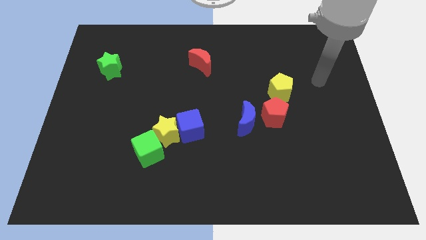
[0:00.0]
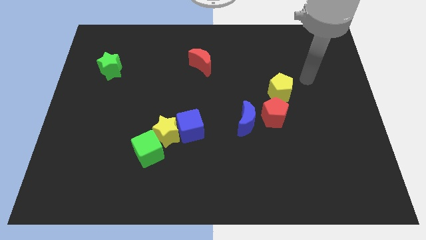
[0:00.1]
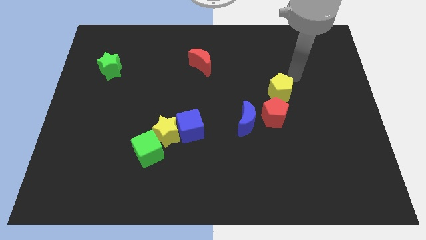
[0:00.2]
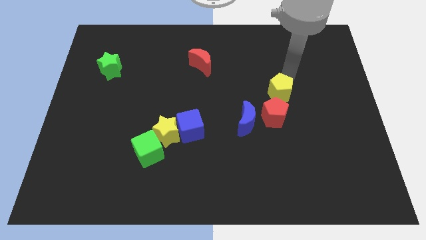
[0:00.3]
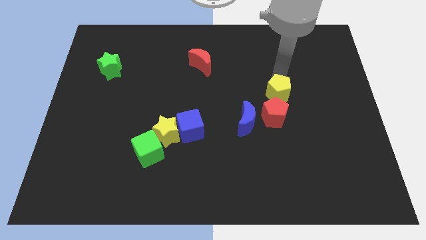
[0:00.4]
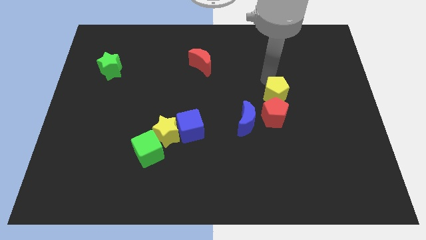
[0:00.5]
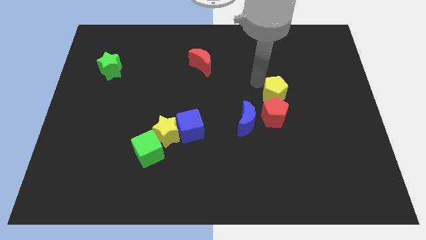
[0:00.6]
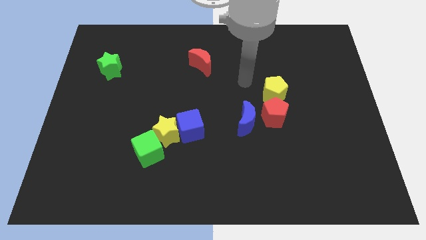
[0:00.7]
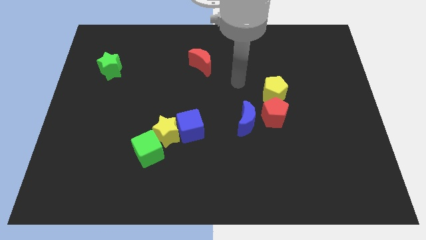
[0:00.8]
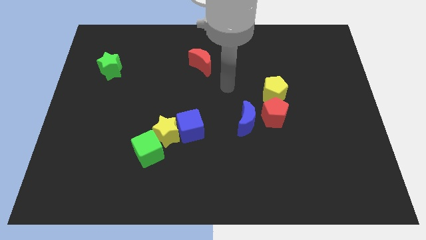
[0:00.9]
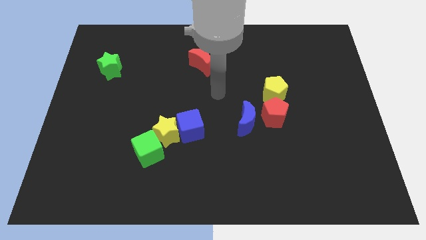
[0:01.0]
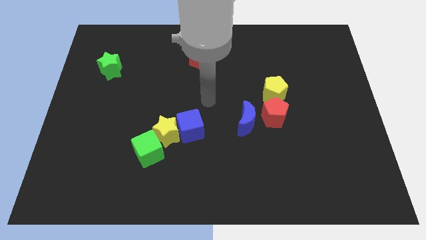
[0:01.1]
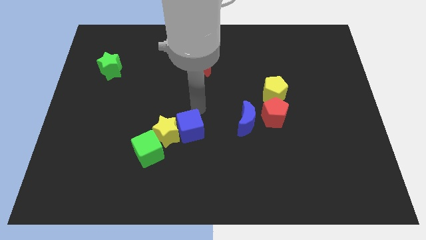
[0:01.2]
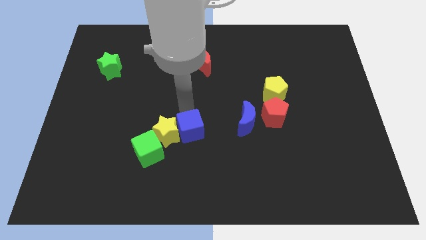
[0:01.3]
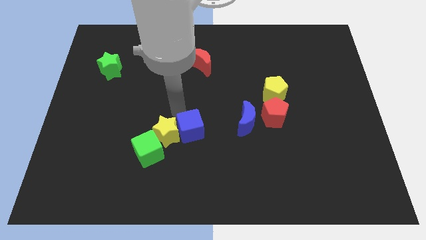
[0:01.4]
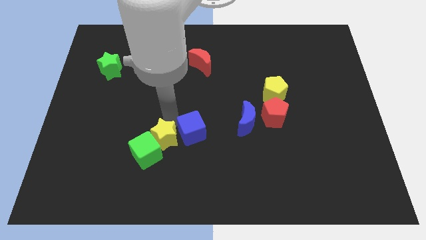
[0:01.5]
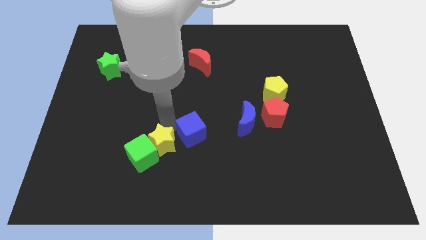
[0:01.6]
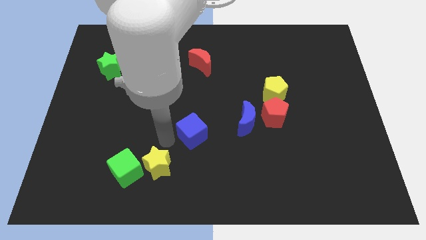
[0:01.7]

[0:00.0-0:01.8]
move the blue cube away from the yellow star

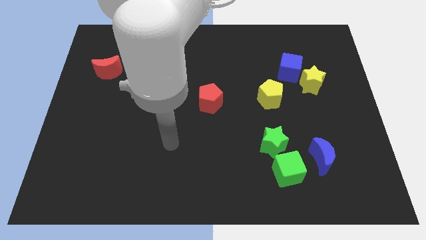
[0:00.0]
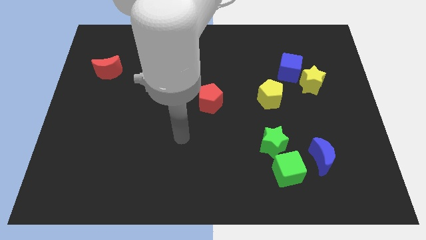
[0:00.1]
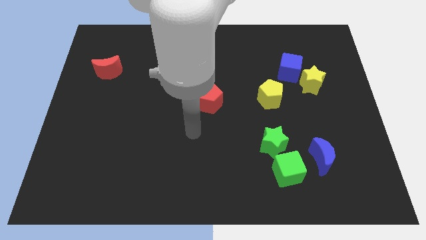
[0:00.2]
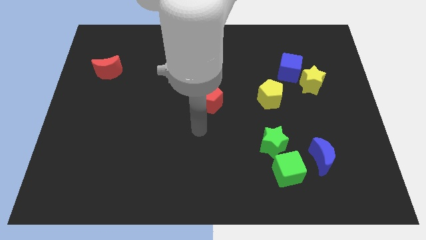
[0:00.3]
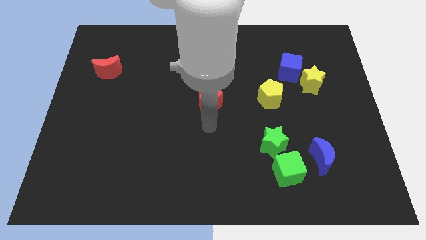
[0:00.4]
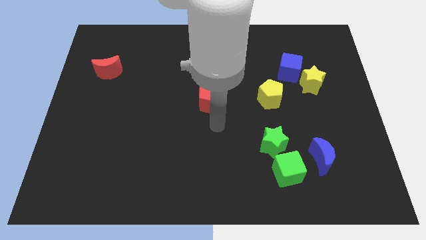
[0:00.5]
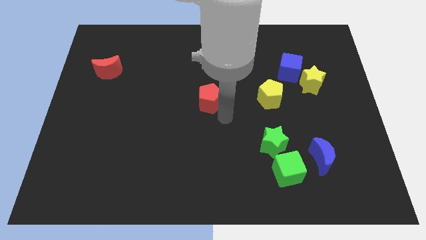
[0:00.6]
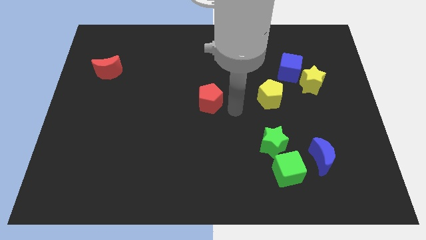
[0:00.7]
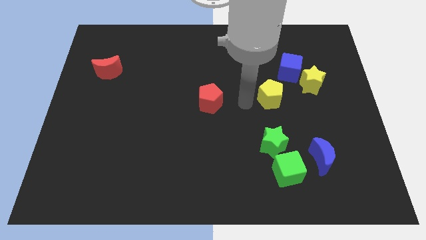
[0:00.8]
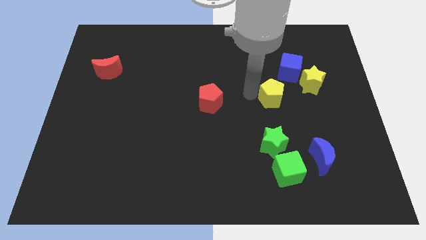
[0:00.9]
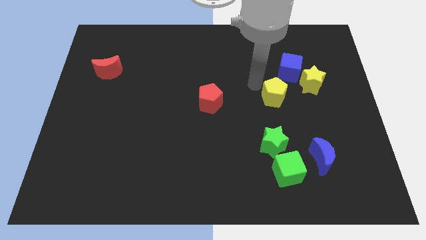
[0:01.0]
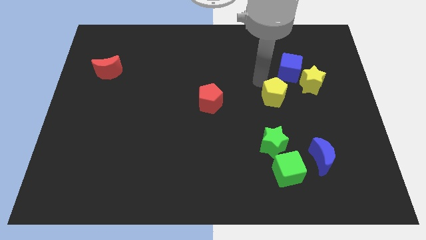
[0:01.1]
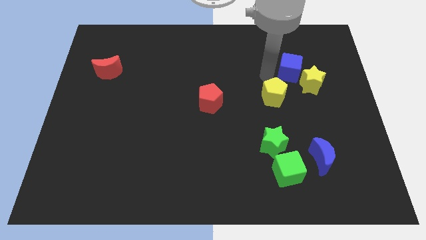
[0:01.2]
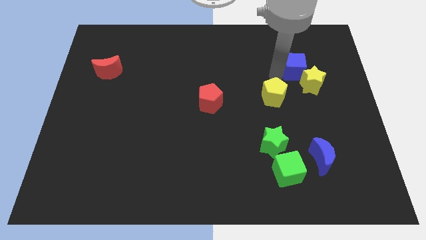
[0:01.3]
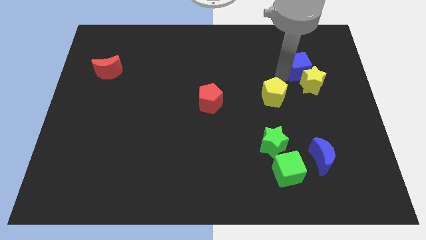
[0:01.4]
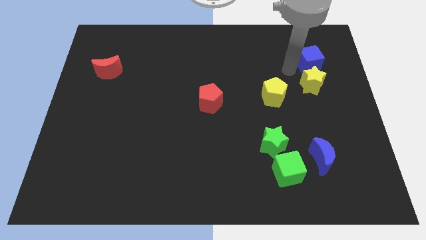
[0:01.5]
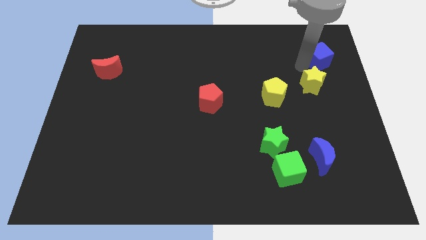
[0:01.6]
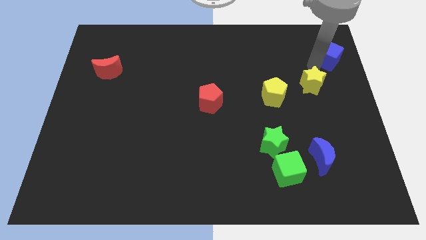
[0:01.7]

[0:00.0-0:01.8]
pull the yellow star apart from the blue cube

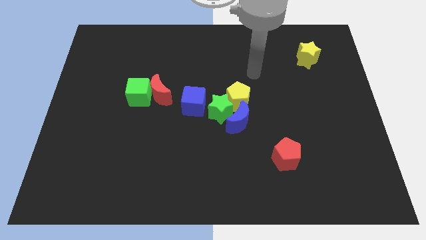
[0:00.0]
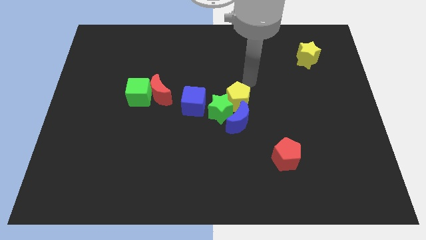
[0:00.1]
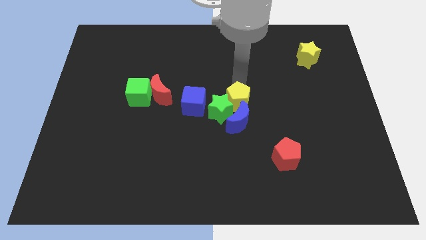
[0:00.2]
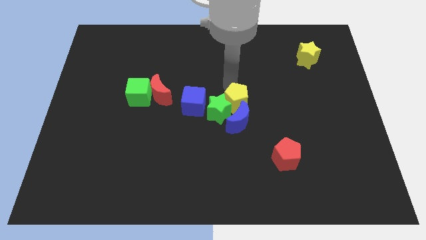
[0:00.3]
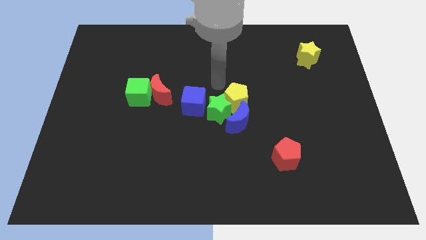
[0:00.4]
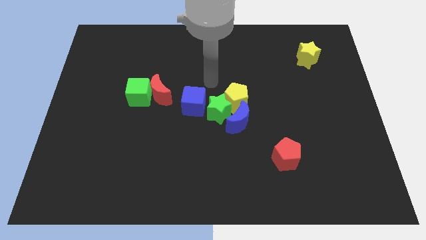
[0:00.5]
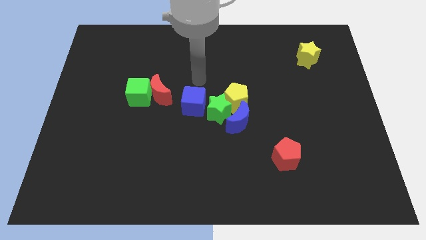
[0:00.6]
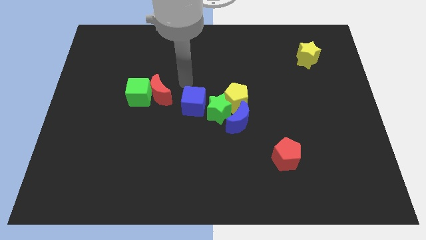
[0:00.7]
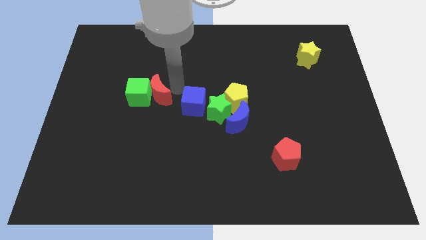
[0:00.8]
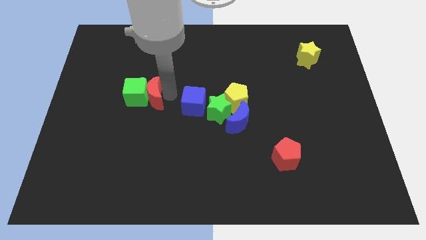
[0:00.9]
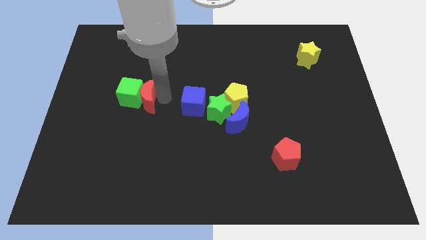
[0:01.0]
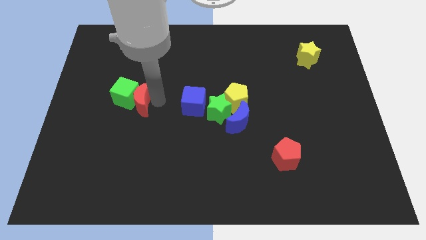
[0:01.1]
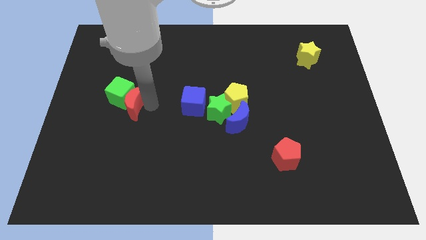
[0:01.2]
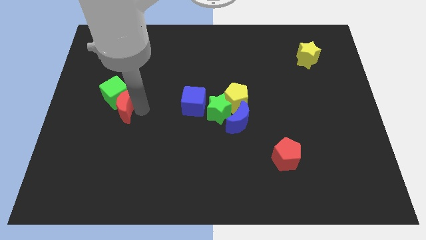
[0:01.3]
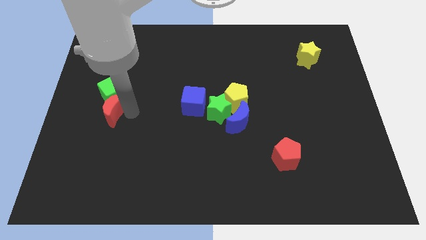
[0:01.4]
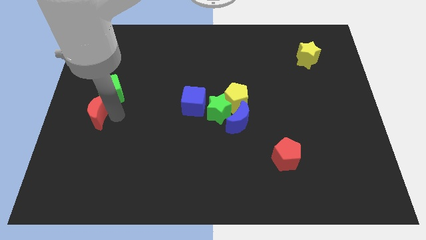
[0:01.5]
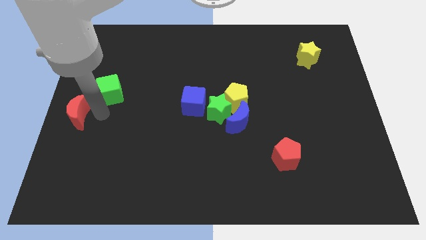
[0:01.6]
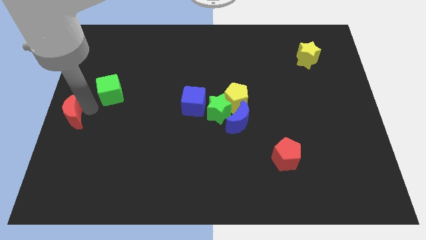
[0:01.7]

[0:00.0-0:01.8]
pull the green cube apart from the red moon

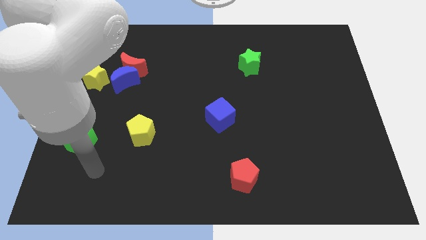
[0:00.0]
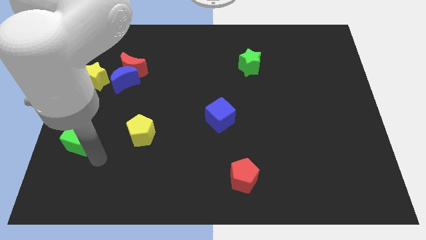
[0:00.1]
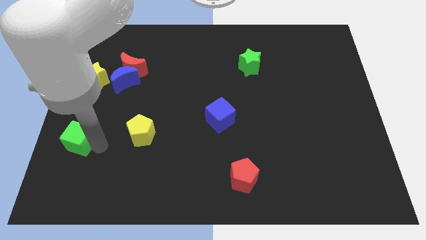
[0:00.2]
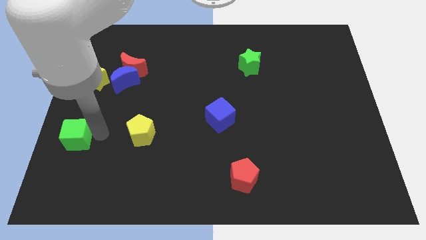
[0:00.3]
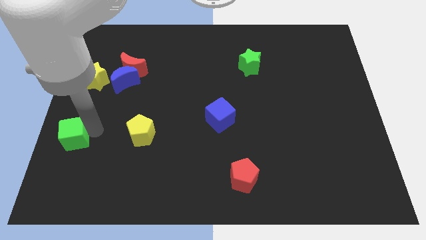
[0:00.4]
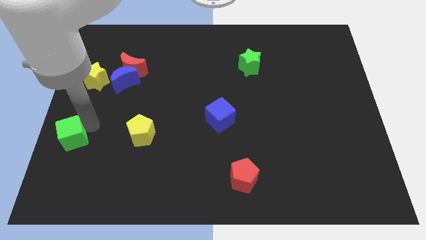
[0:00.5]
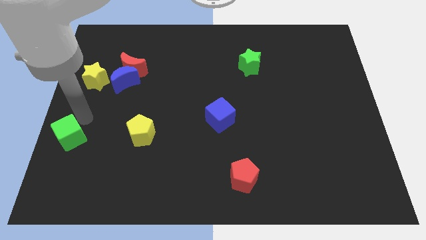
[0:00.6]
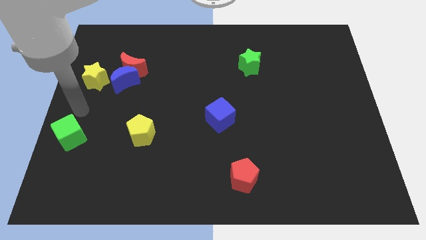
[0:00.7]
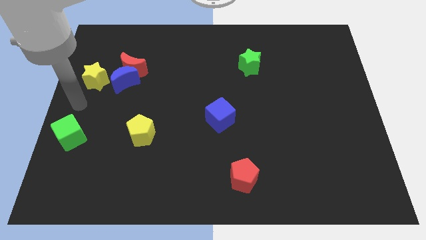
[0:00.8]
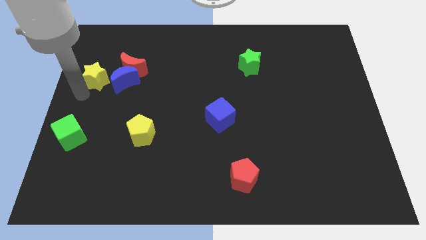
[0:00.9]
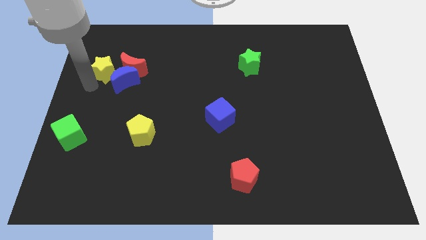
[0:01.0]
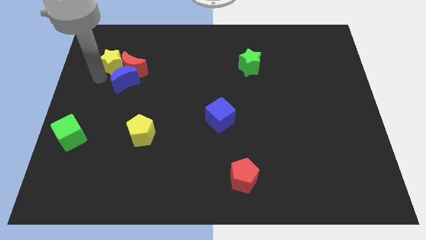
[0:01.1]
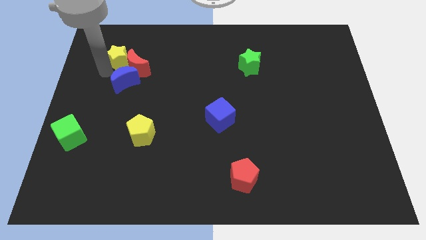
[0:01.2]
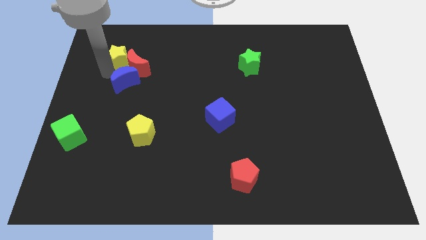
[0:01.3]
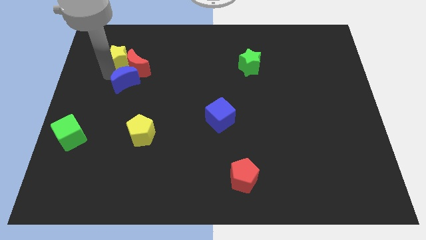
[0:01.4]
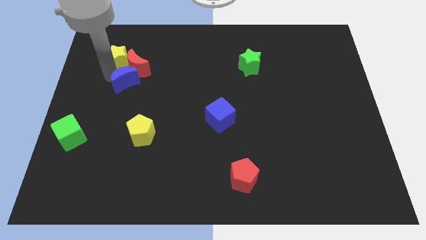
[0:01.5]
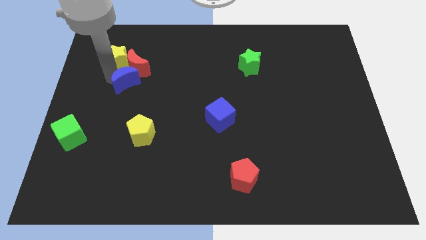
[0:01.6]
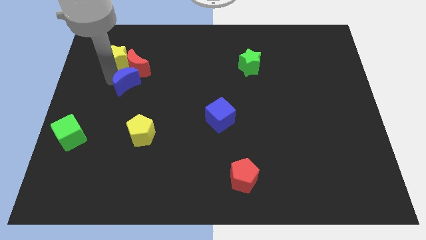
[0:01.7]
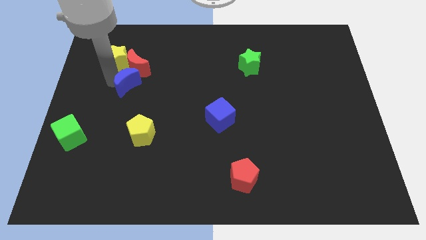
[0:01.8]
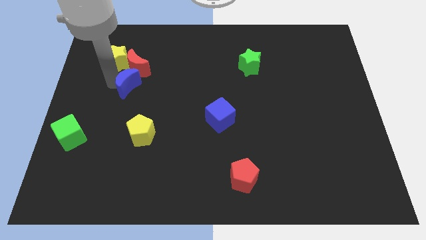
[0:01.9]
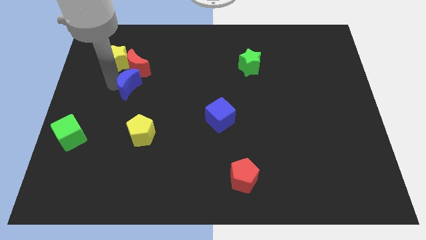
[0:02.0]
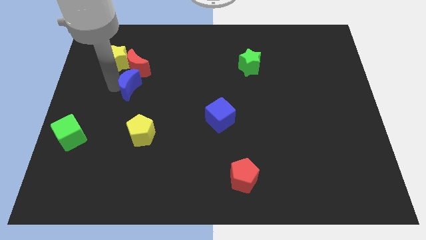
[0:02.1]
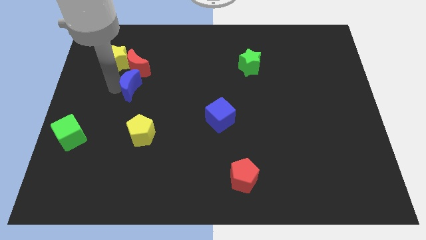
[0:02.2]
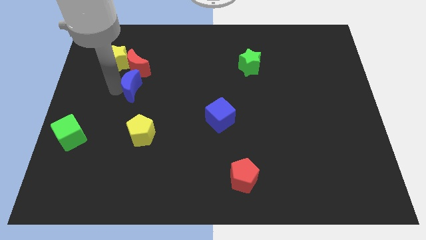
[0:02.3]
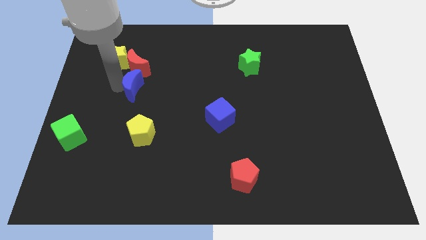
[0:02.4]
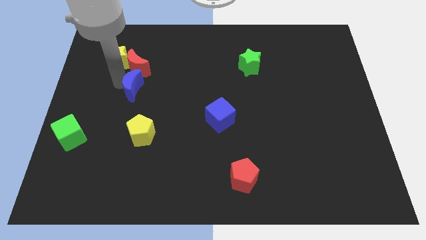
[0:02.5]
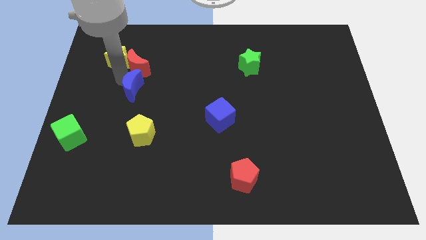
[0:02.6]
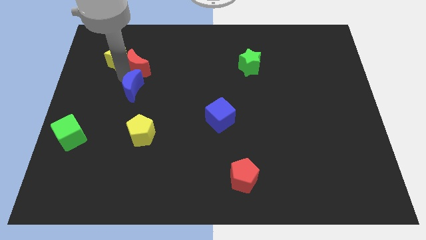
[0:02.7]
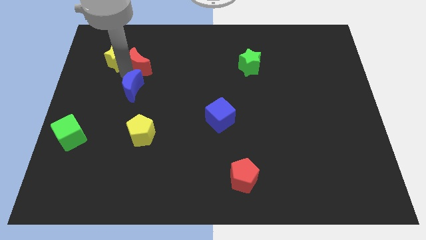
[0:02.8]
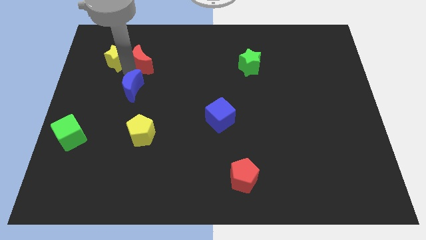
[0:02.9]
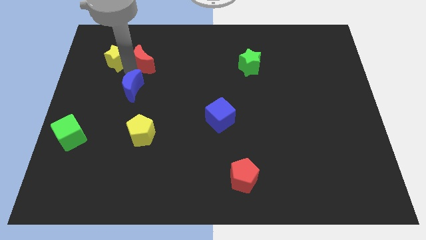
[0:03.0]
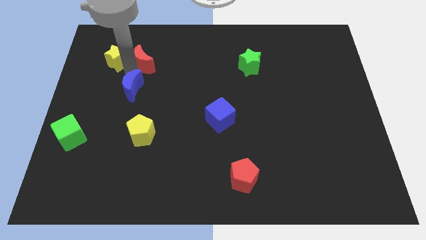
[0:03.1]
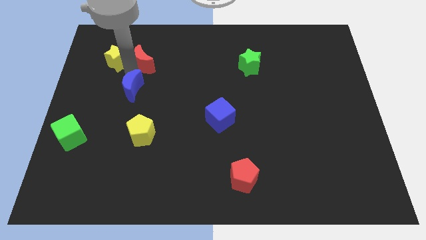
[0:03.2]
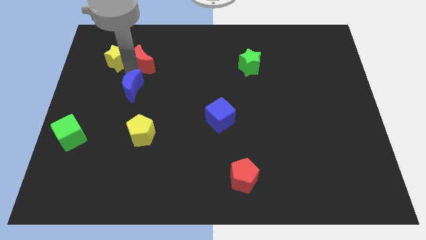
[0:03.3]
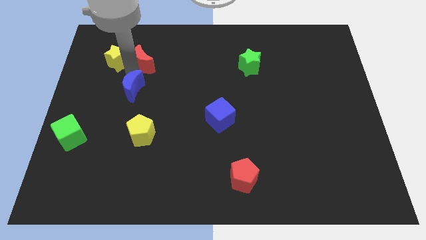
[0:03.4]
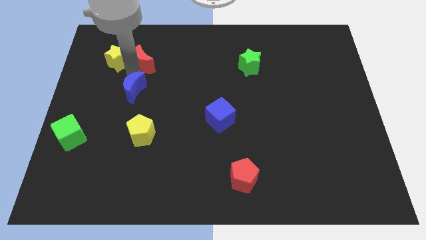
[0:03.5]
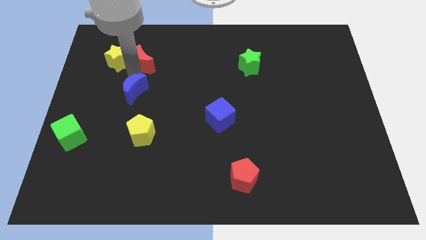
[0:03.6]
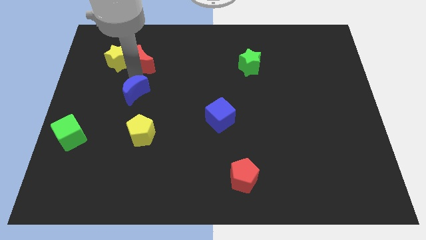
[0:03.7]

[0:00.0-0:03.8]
pull the blue moon apart from the red moon and yellow star

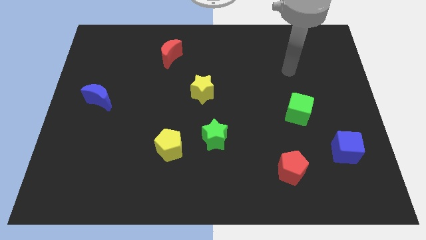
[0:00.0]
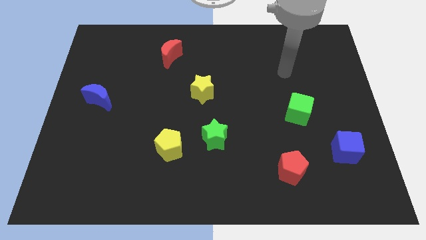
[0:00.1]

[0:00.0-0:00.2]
separate the green star from the yellow pentagon
